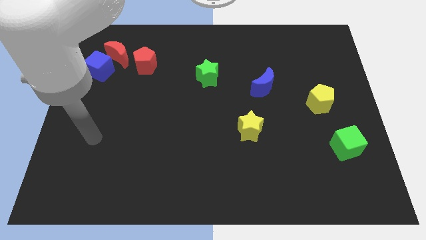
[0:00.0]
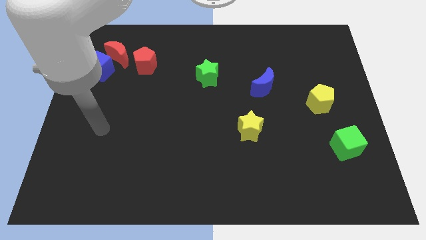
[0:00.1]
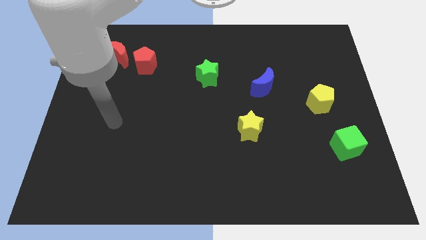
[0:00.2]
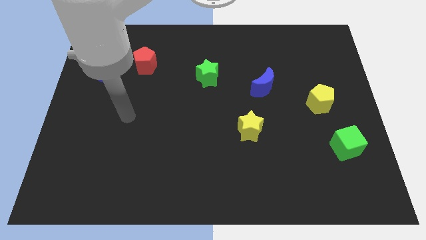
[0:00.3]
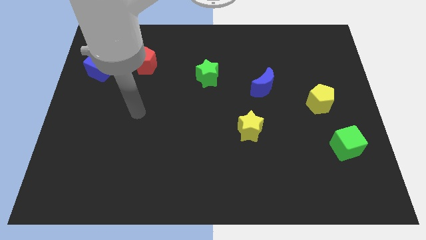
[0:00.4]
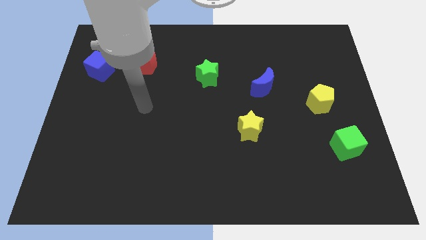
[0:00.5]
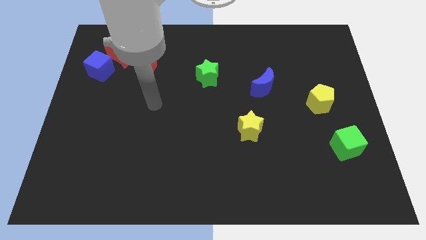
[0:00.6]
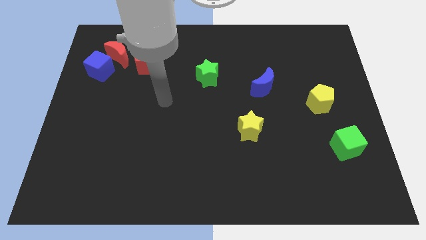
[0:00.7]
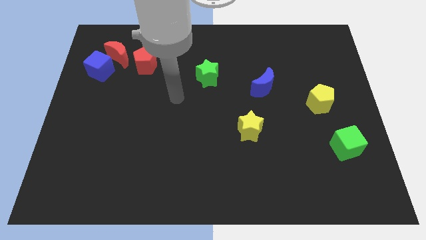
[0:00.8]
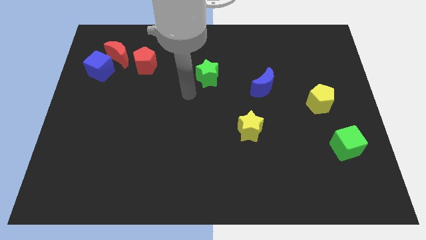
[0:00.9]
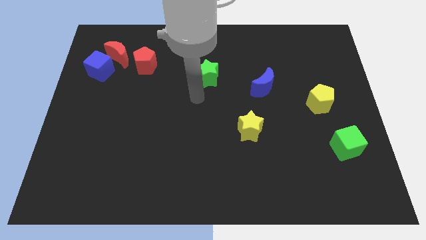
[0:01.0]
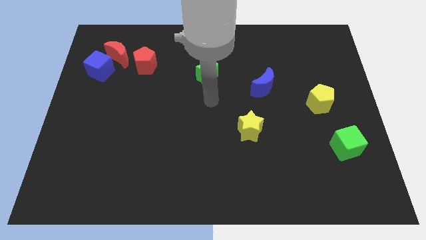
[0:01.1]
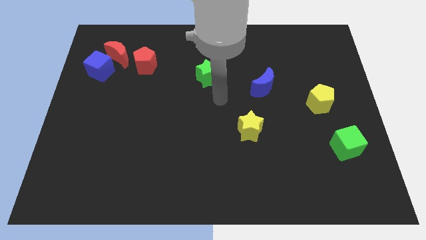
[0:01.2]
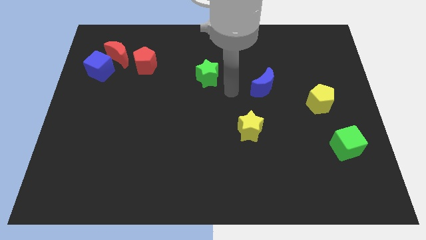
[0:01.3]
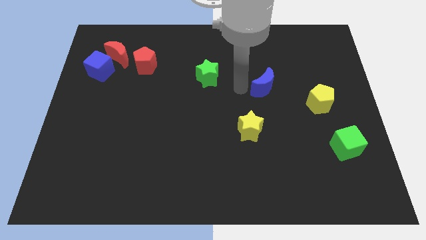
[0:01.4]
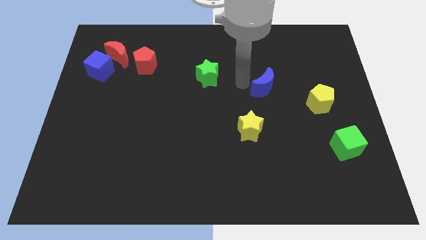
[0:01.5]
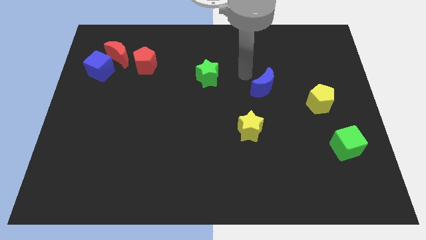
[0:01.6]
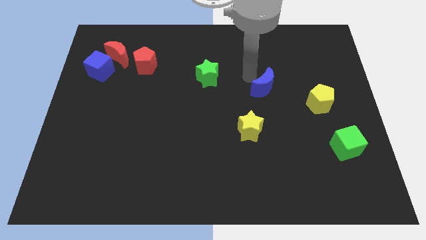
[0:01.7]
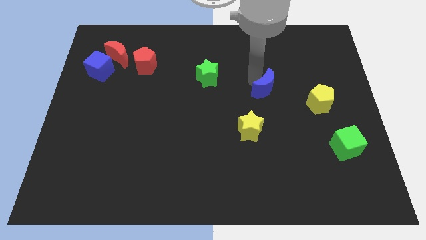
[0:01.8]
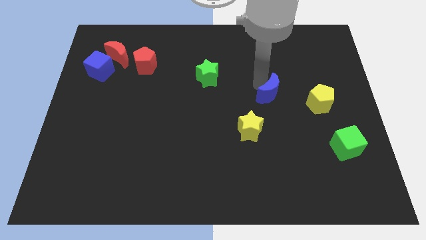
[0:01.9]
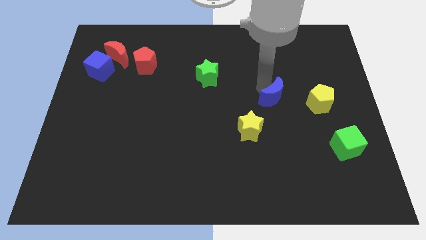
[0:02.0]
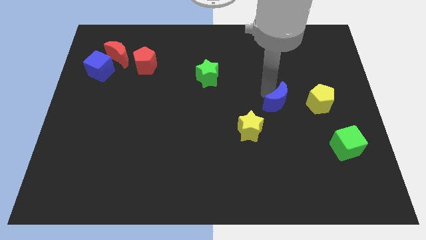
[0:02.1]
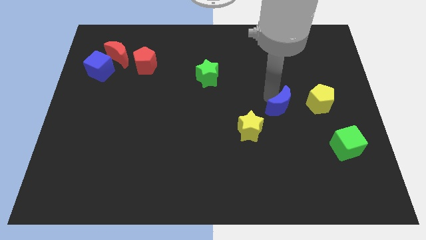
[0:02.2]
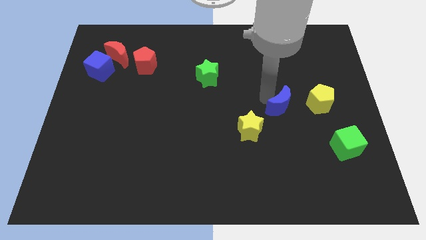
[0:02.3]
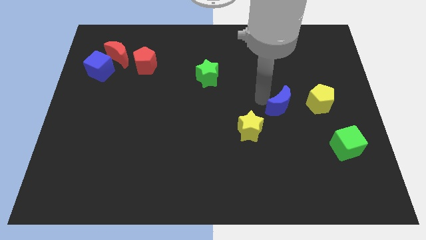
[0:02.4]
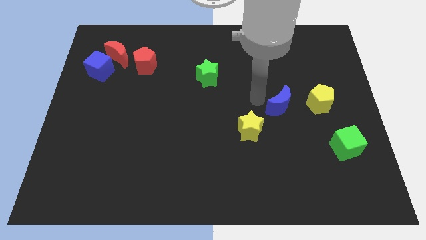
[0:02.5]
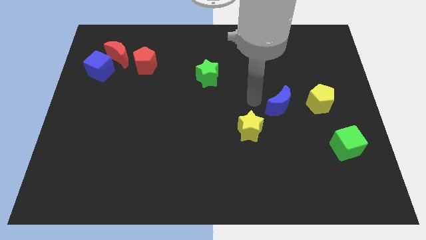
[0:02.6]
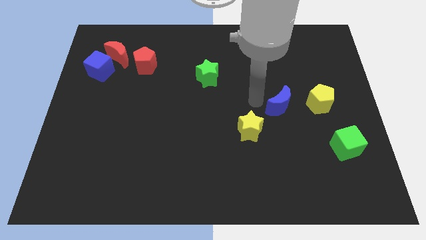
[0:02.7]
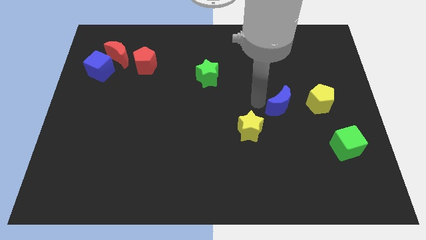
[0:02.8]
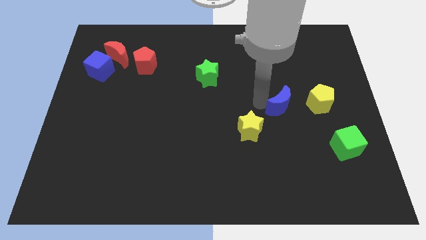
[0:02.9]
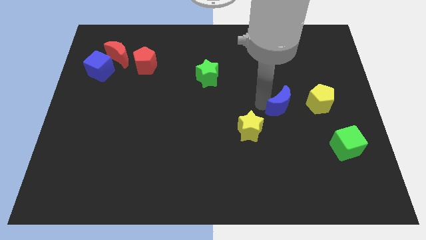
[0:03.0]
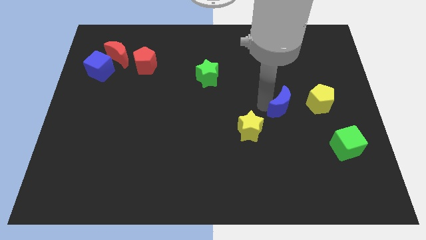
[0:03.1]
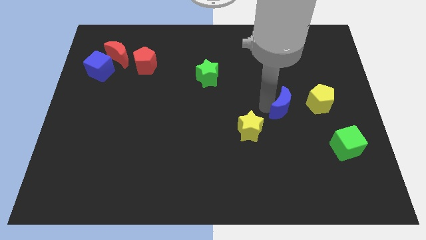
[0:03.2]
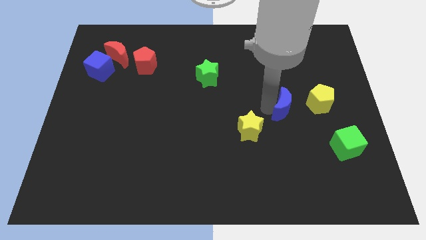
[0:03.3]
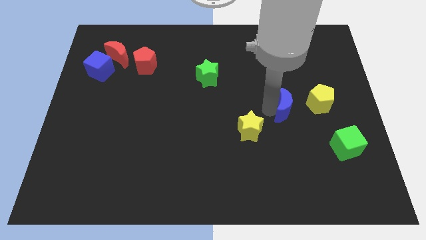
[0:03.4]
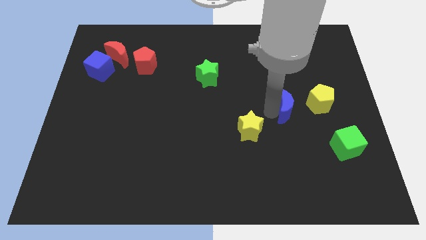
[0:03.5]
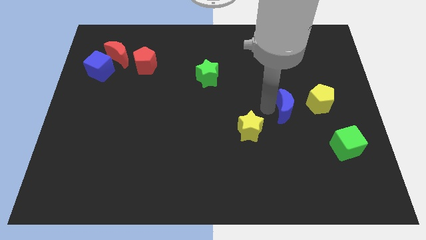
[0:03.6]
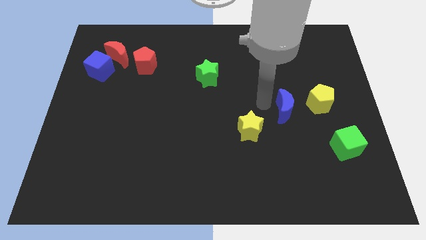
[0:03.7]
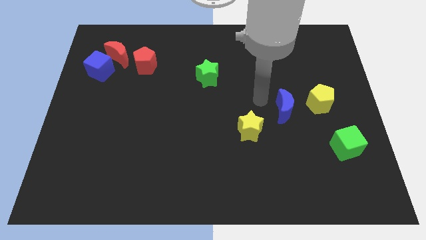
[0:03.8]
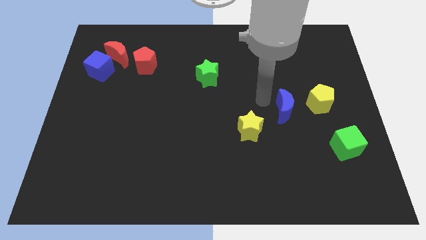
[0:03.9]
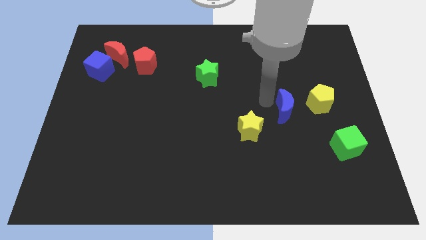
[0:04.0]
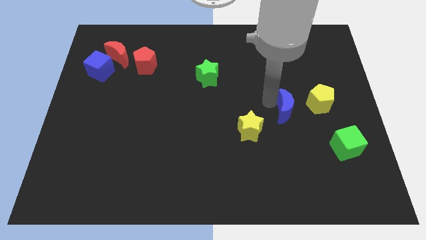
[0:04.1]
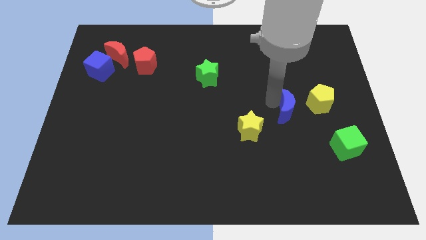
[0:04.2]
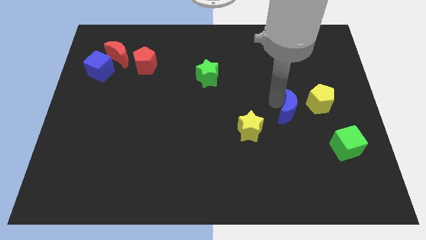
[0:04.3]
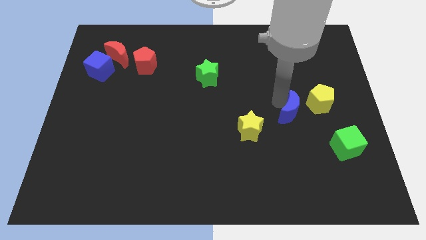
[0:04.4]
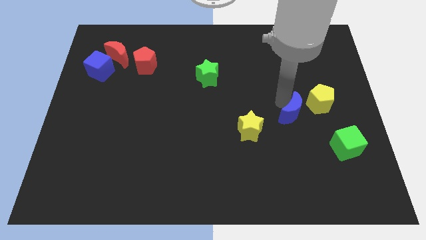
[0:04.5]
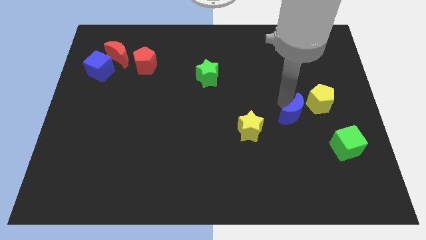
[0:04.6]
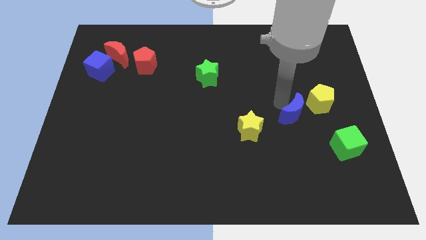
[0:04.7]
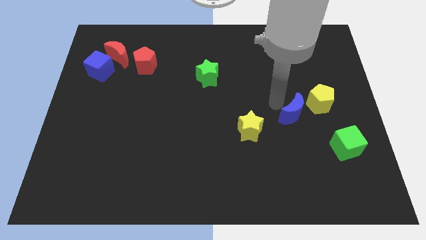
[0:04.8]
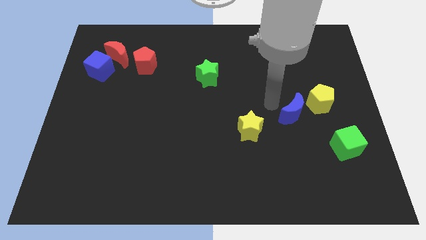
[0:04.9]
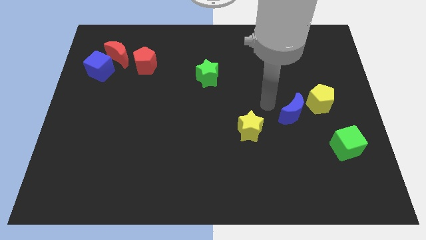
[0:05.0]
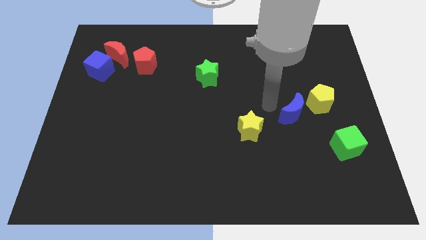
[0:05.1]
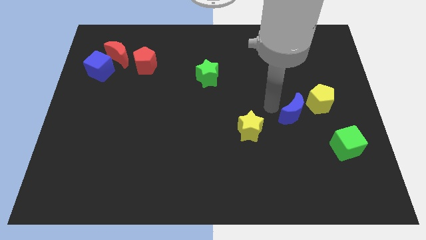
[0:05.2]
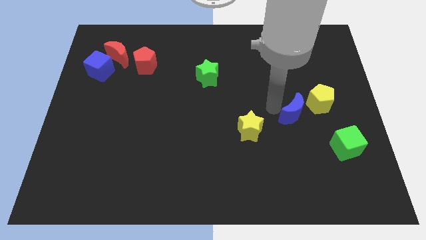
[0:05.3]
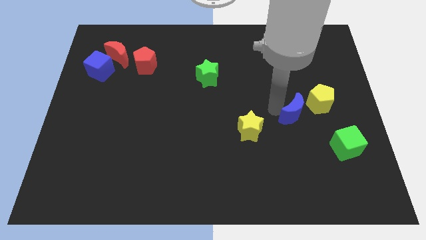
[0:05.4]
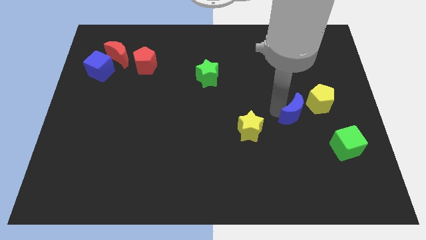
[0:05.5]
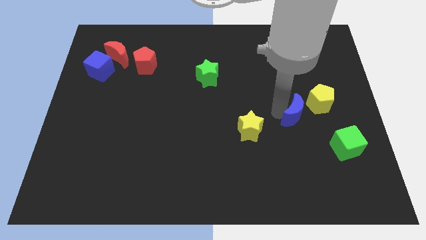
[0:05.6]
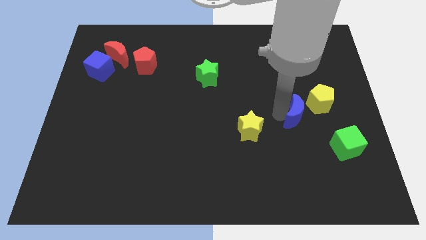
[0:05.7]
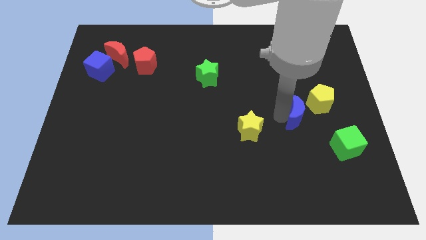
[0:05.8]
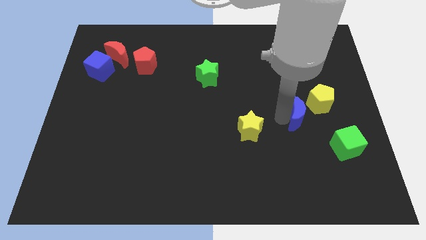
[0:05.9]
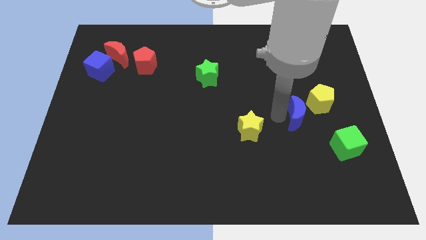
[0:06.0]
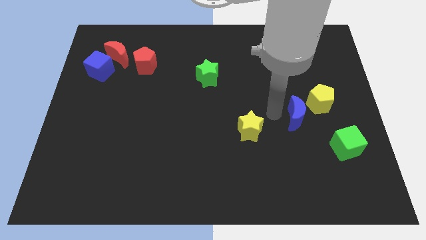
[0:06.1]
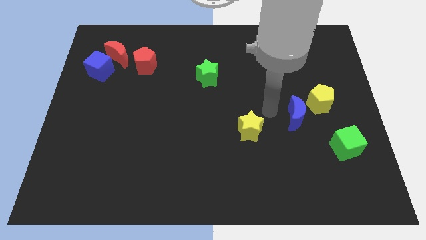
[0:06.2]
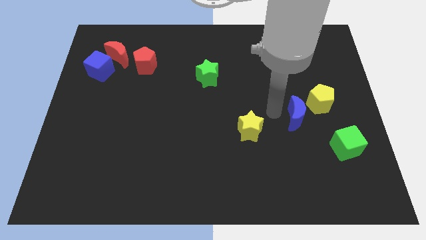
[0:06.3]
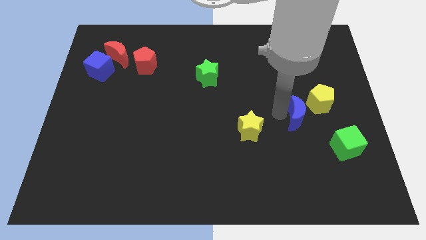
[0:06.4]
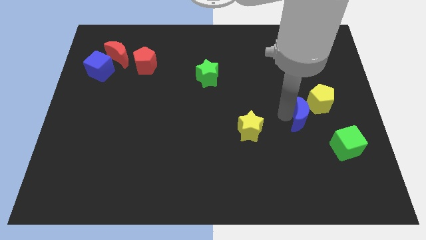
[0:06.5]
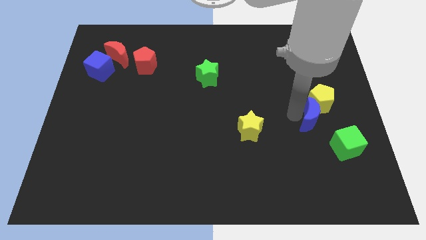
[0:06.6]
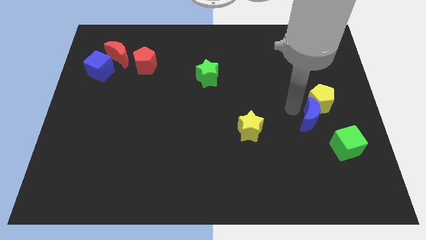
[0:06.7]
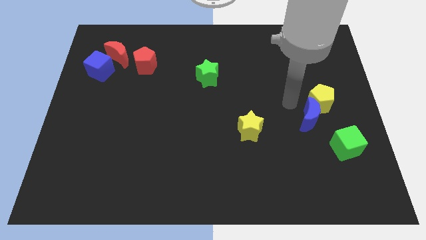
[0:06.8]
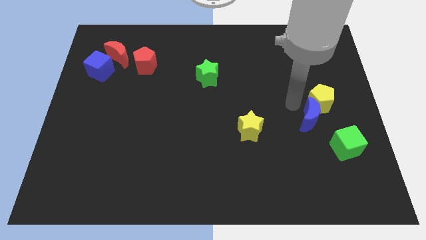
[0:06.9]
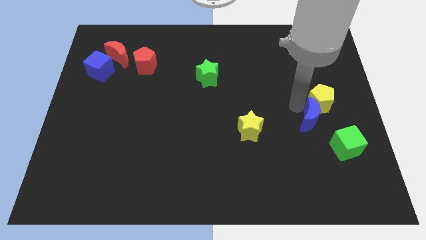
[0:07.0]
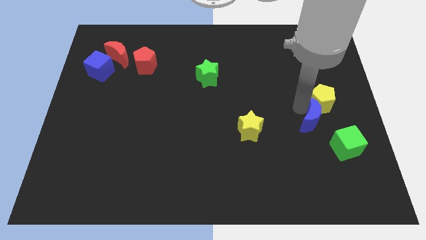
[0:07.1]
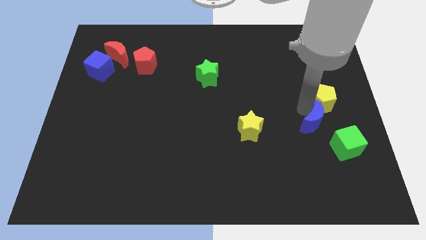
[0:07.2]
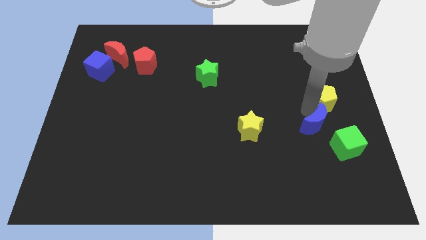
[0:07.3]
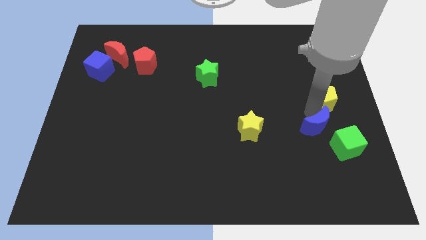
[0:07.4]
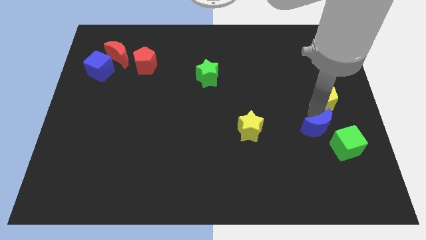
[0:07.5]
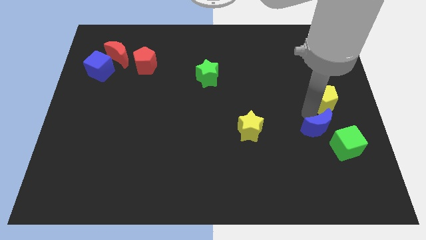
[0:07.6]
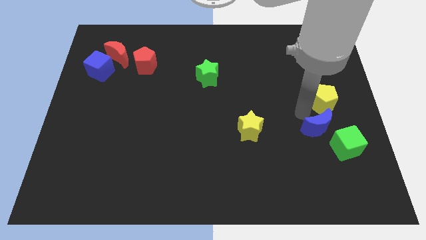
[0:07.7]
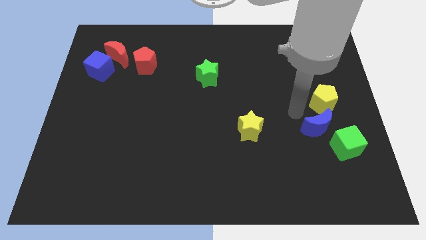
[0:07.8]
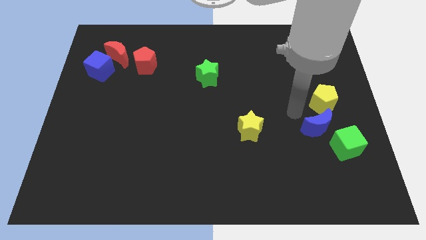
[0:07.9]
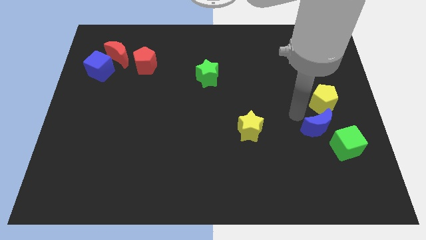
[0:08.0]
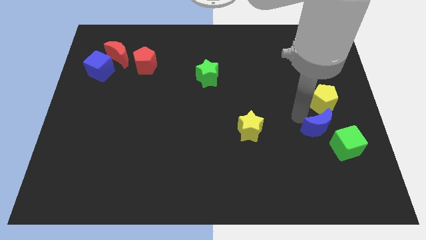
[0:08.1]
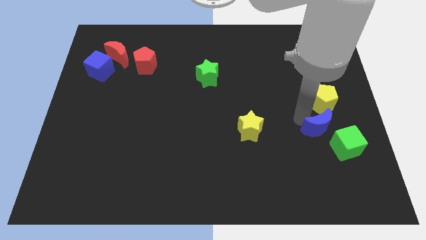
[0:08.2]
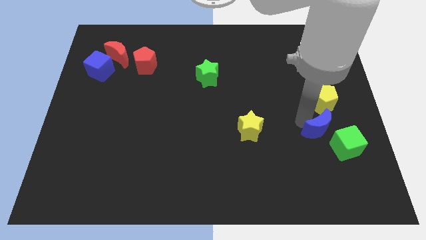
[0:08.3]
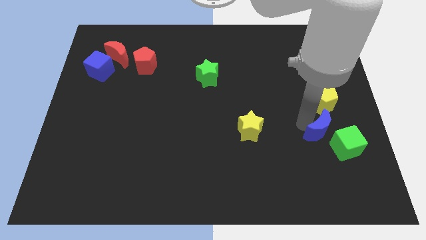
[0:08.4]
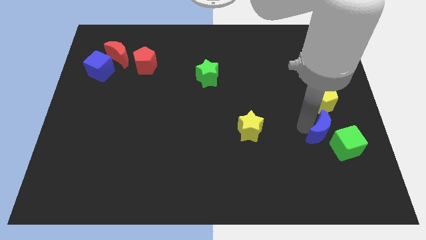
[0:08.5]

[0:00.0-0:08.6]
move the blue moon next to the green cube
